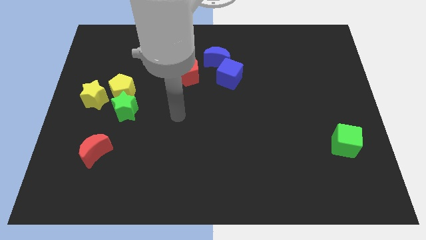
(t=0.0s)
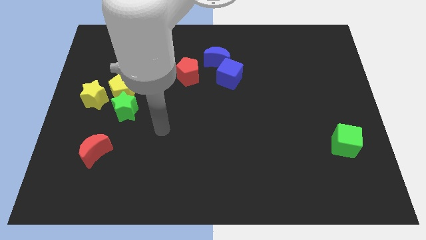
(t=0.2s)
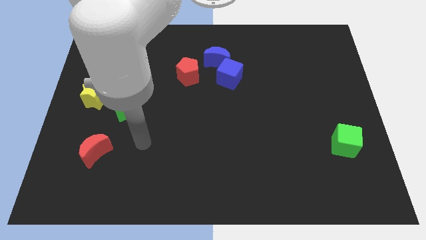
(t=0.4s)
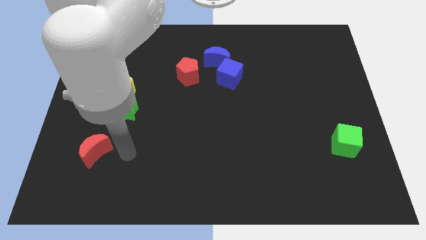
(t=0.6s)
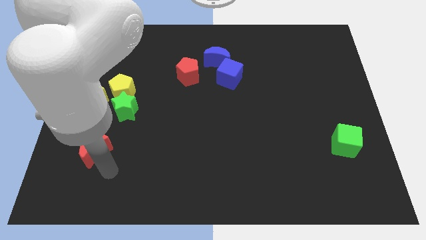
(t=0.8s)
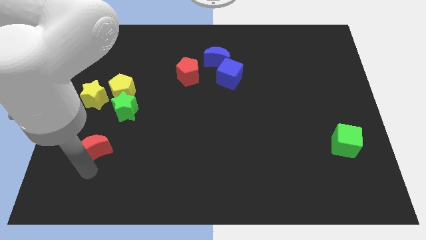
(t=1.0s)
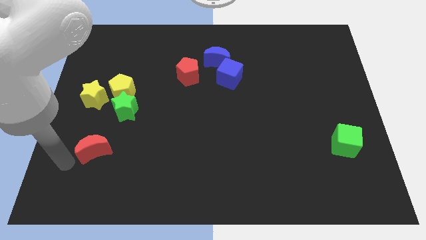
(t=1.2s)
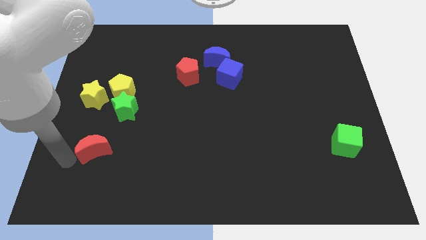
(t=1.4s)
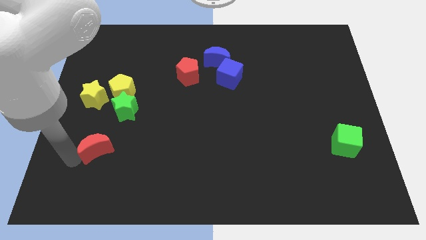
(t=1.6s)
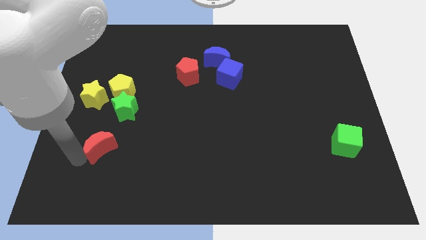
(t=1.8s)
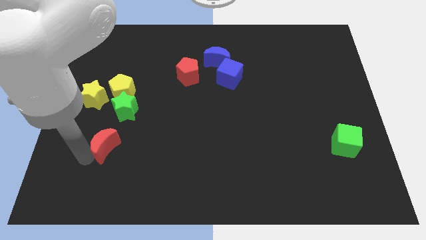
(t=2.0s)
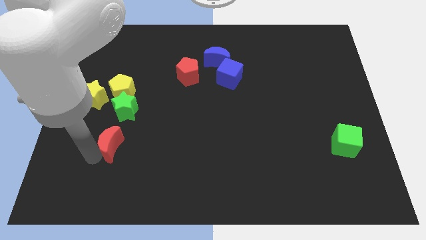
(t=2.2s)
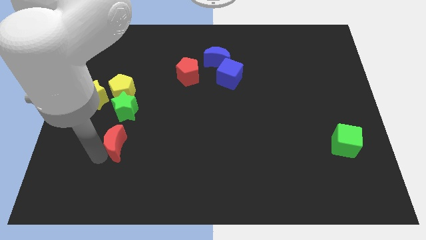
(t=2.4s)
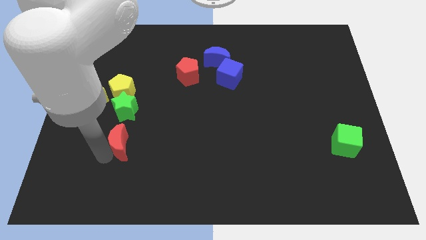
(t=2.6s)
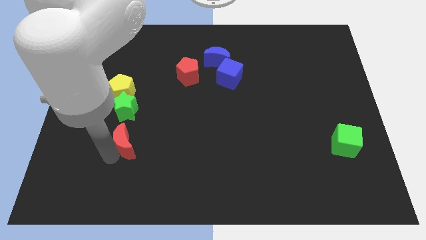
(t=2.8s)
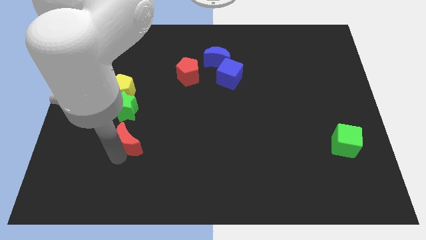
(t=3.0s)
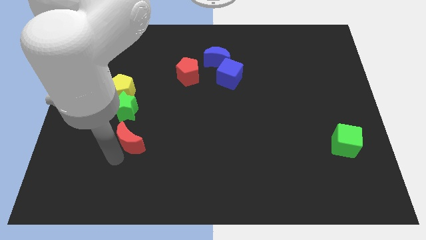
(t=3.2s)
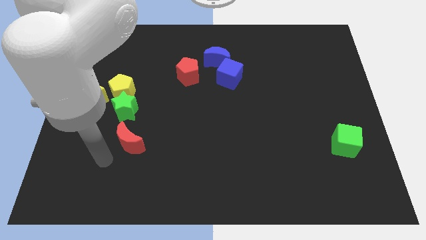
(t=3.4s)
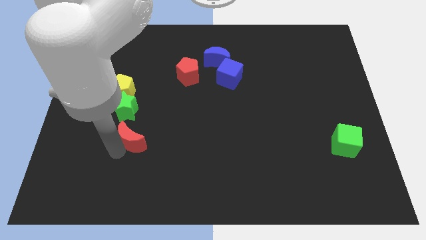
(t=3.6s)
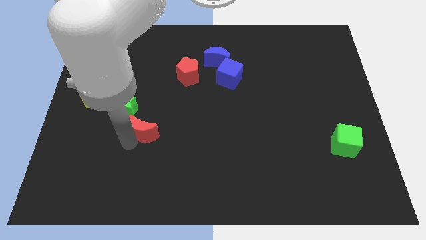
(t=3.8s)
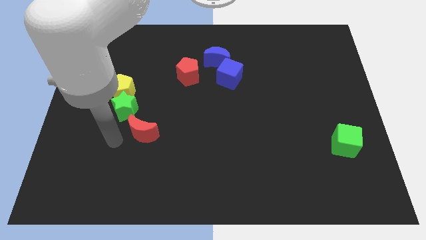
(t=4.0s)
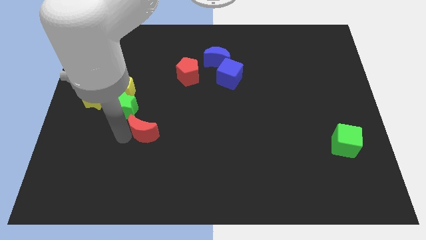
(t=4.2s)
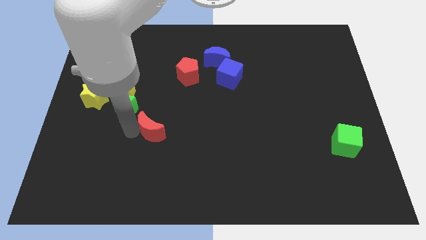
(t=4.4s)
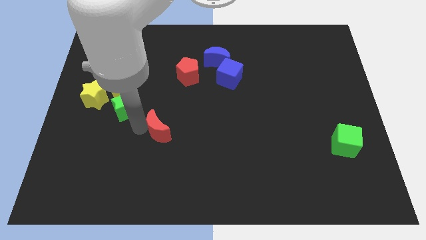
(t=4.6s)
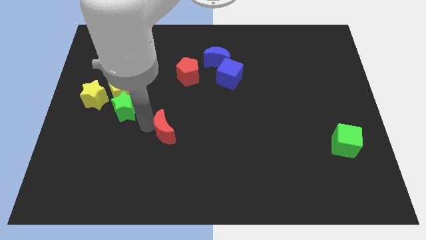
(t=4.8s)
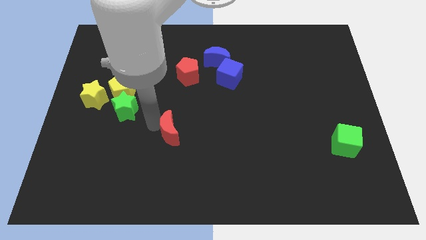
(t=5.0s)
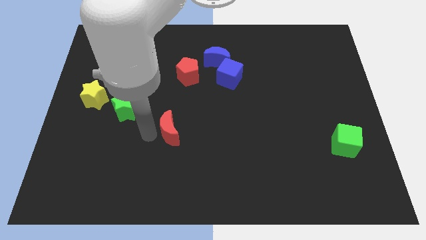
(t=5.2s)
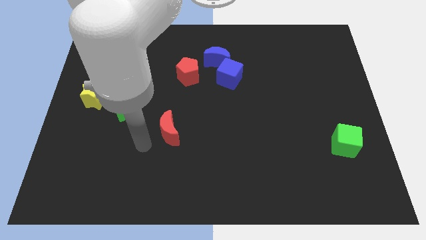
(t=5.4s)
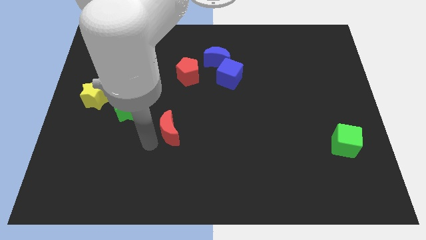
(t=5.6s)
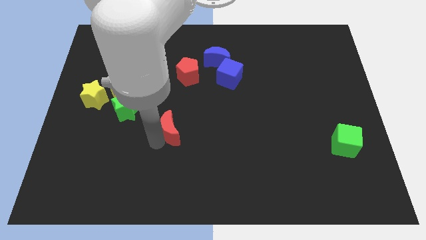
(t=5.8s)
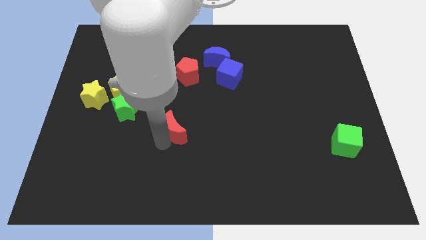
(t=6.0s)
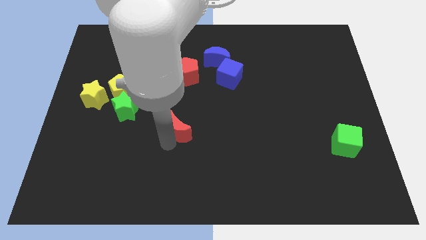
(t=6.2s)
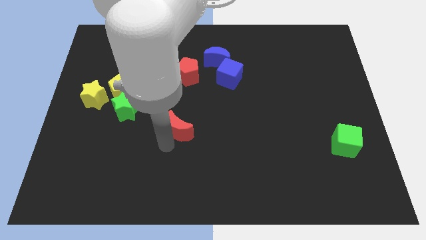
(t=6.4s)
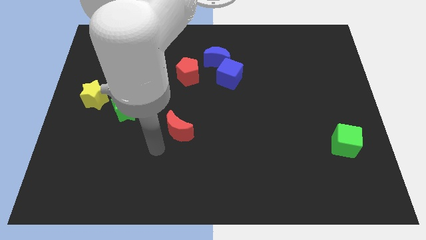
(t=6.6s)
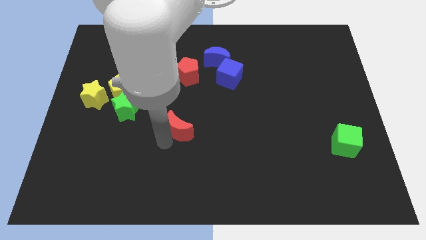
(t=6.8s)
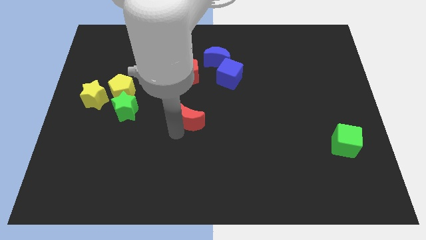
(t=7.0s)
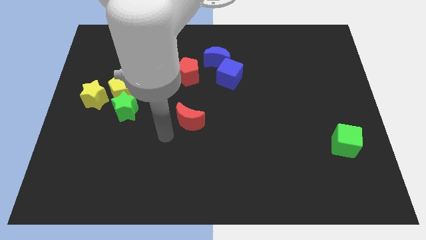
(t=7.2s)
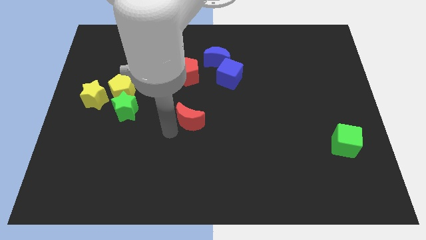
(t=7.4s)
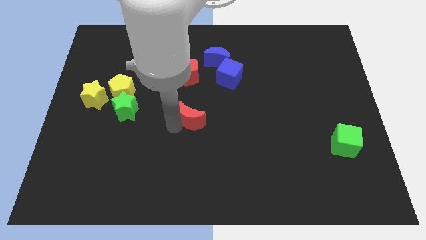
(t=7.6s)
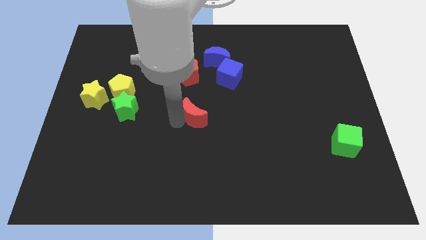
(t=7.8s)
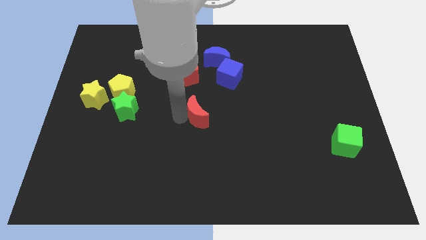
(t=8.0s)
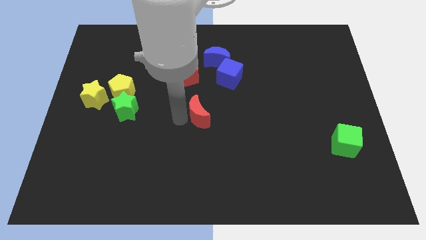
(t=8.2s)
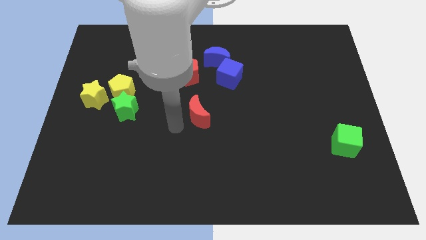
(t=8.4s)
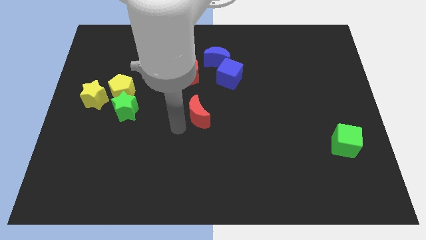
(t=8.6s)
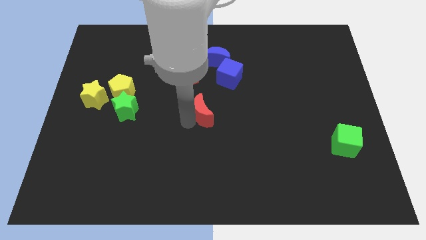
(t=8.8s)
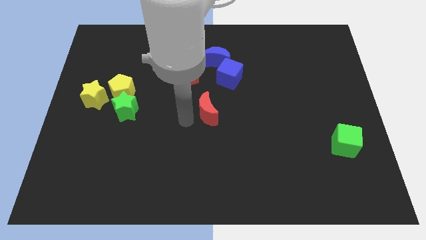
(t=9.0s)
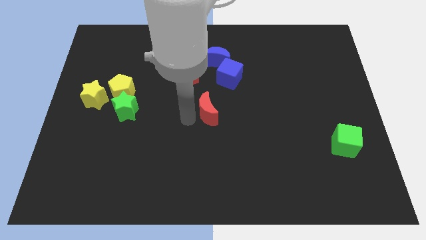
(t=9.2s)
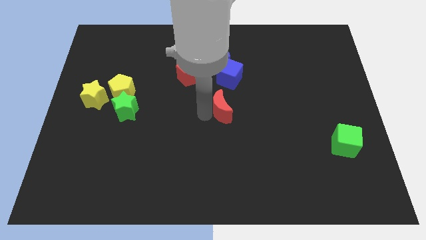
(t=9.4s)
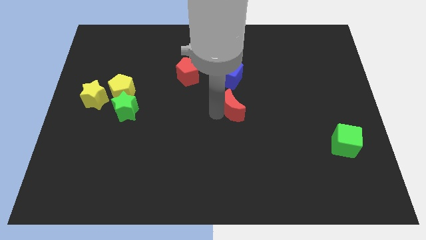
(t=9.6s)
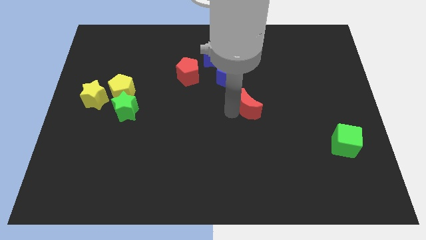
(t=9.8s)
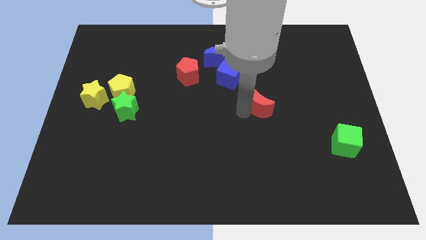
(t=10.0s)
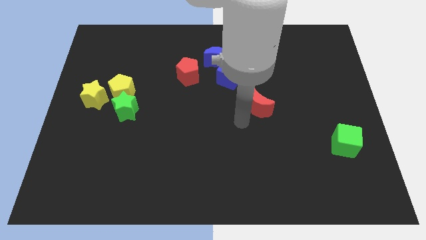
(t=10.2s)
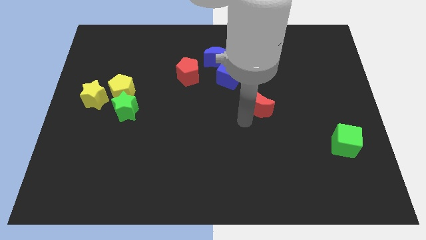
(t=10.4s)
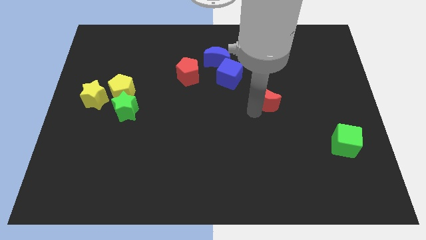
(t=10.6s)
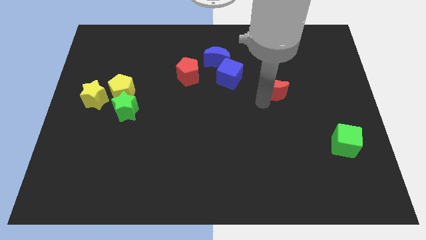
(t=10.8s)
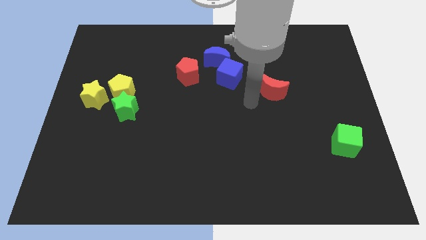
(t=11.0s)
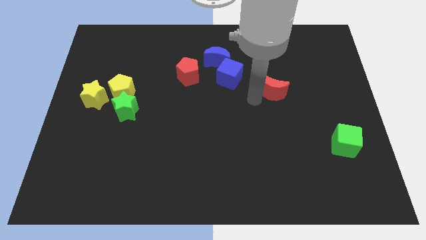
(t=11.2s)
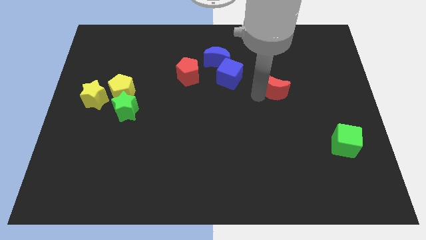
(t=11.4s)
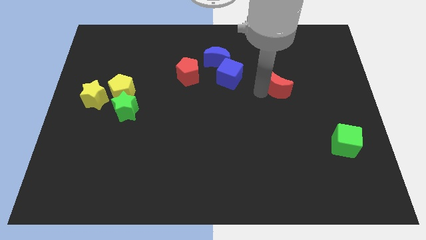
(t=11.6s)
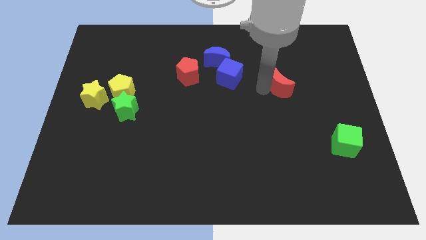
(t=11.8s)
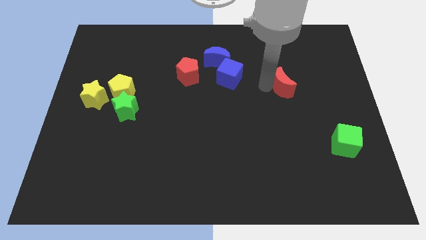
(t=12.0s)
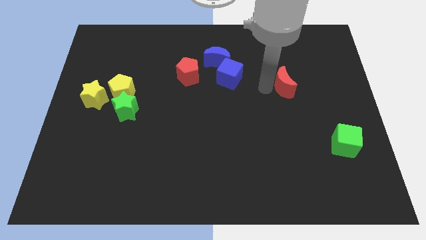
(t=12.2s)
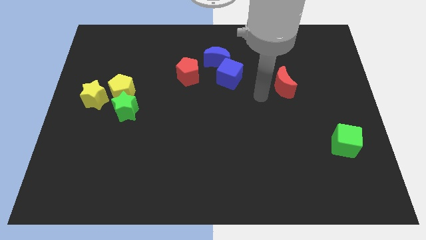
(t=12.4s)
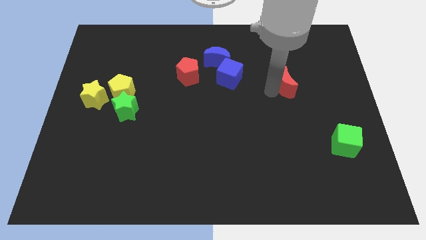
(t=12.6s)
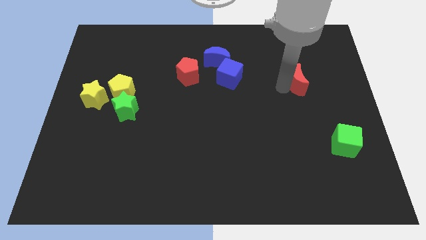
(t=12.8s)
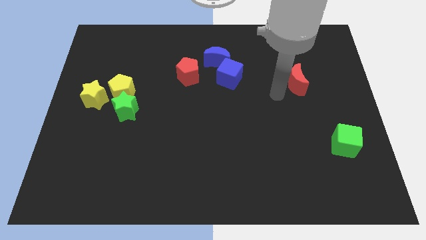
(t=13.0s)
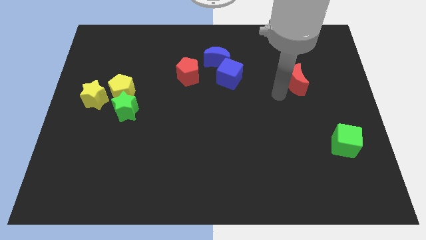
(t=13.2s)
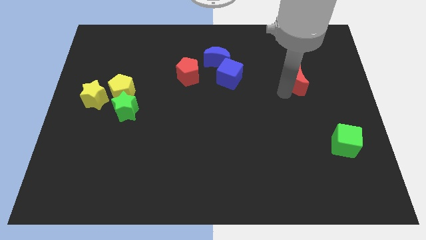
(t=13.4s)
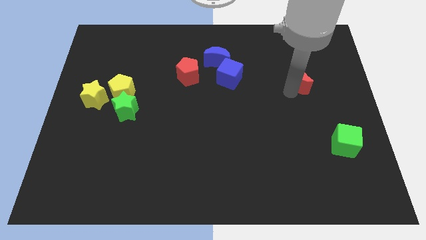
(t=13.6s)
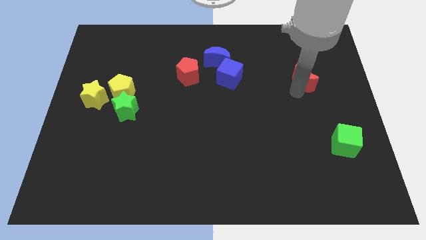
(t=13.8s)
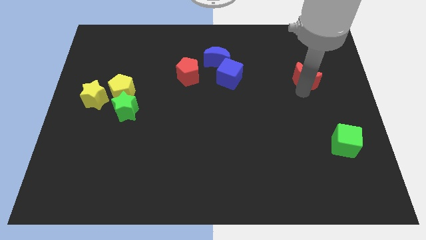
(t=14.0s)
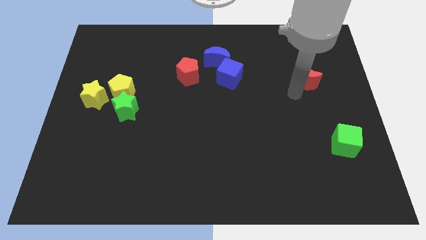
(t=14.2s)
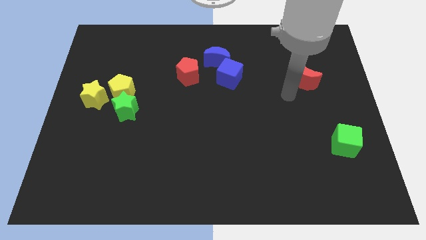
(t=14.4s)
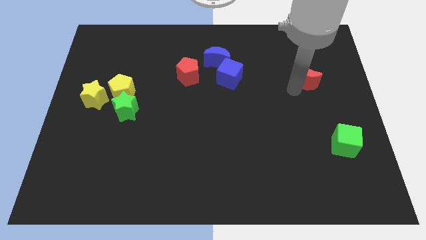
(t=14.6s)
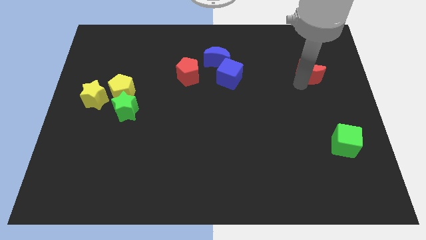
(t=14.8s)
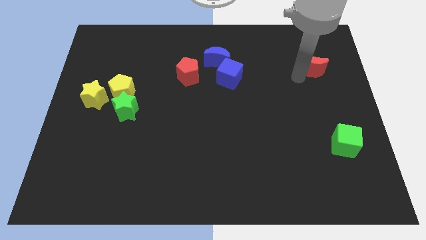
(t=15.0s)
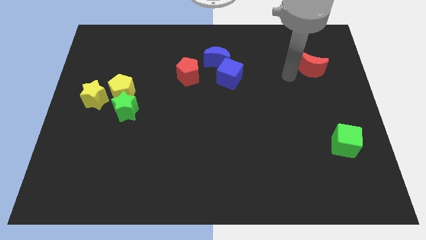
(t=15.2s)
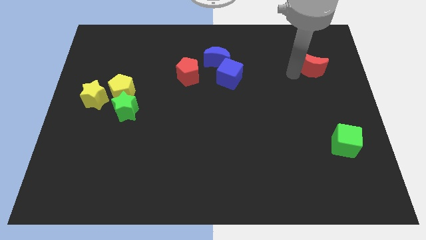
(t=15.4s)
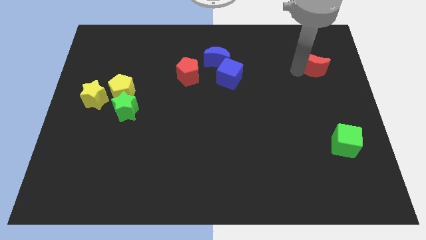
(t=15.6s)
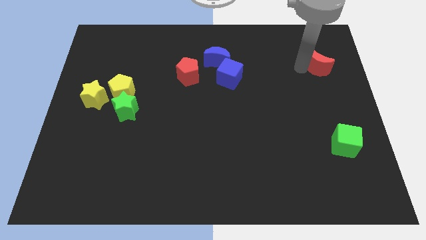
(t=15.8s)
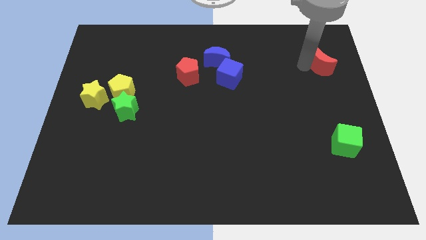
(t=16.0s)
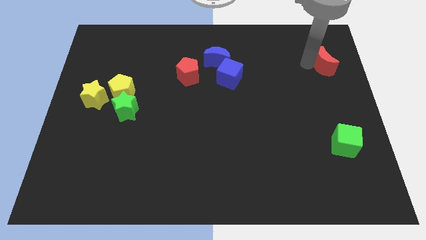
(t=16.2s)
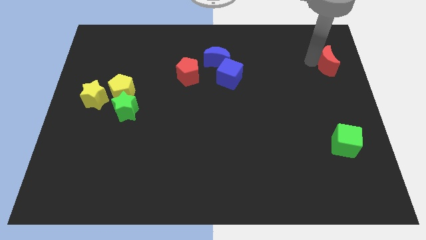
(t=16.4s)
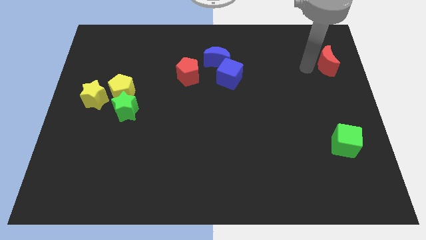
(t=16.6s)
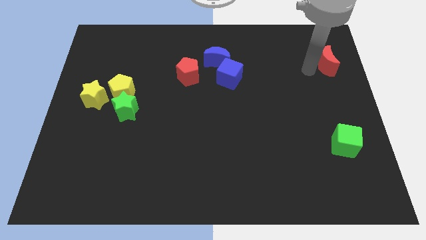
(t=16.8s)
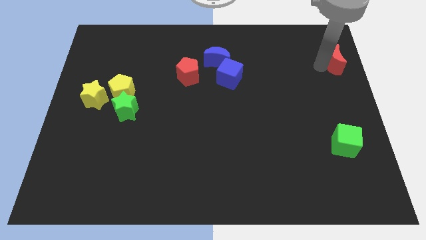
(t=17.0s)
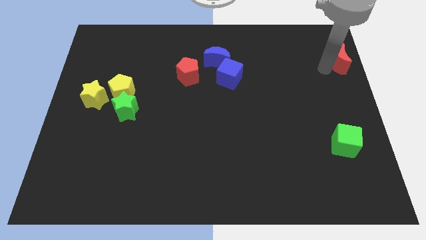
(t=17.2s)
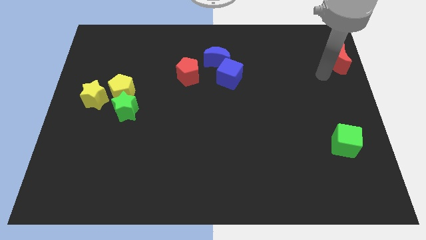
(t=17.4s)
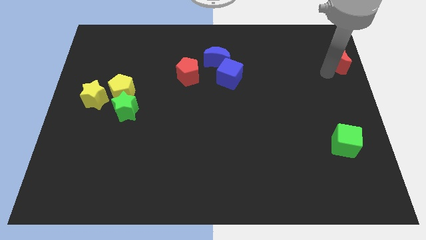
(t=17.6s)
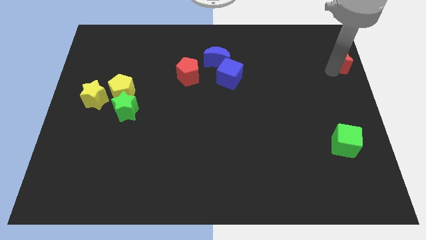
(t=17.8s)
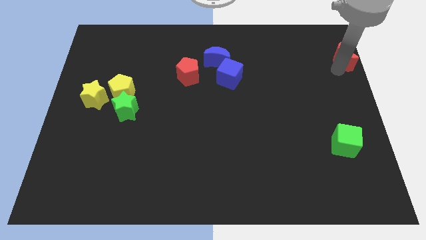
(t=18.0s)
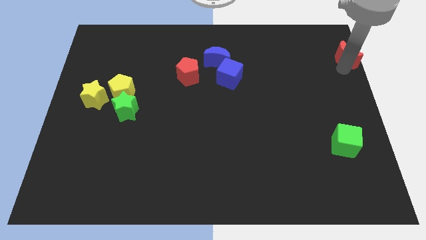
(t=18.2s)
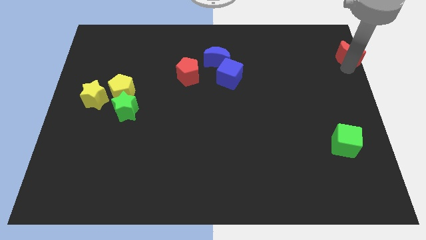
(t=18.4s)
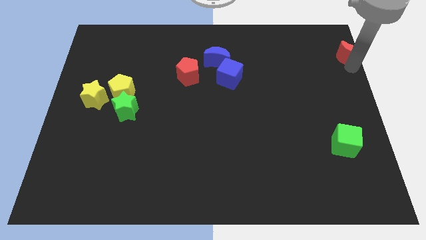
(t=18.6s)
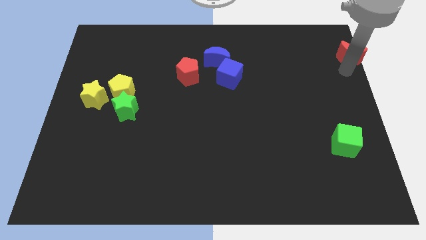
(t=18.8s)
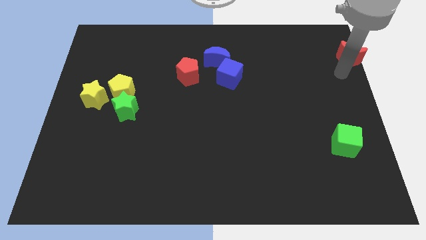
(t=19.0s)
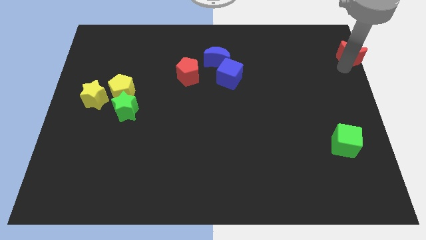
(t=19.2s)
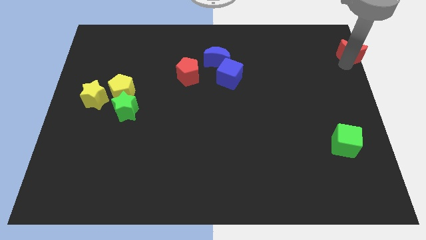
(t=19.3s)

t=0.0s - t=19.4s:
put the red moon to the top right corner
